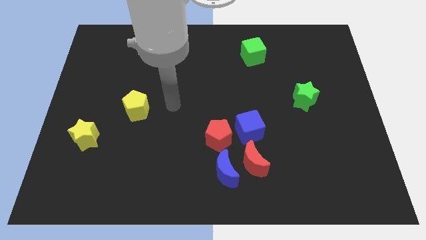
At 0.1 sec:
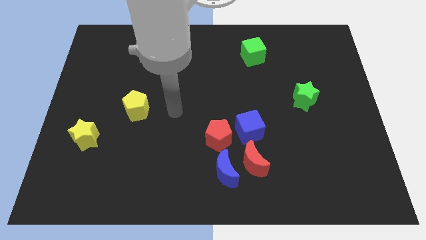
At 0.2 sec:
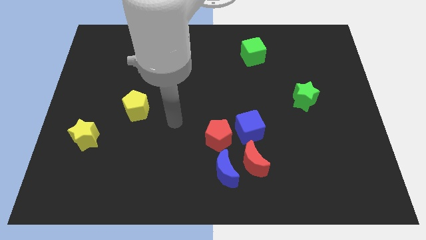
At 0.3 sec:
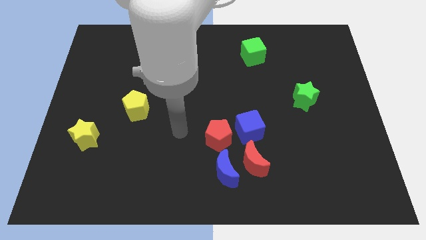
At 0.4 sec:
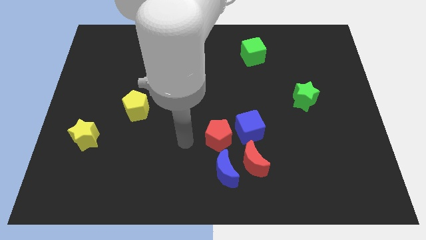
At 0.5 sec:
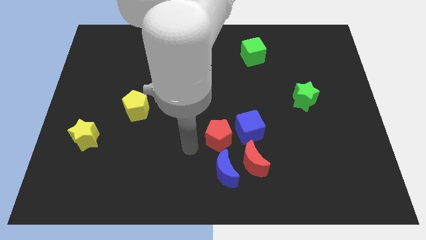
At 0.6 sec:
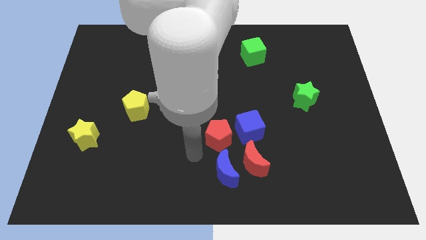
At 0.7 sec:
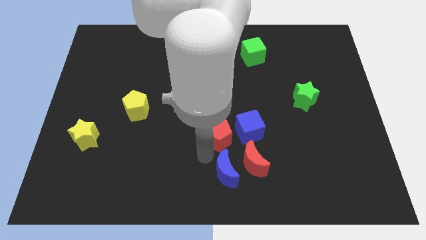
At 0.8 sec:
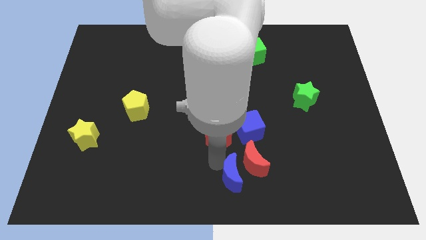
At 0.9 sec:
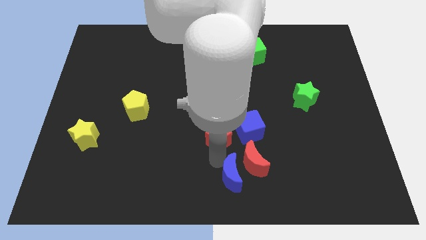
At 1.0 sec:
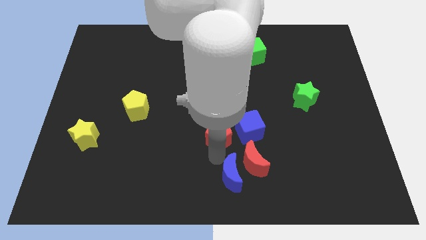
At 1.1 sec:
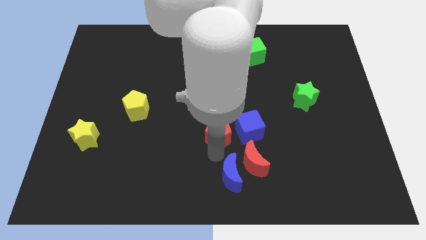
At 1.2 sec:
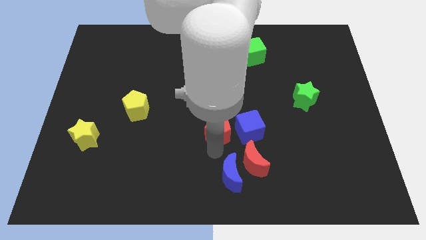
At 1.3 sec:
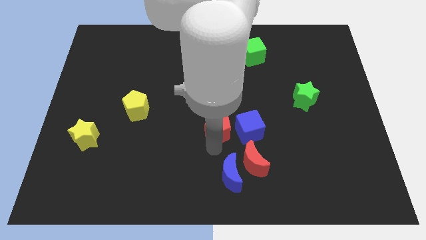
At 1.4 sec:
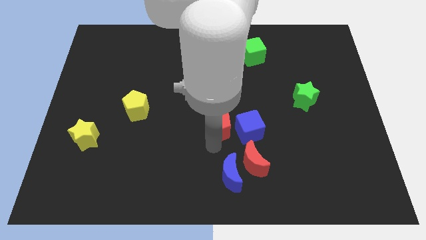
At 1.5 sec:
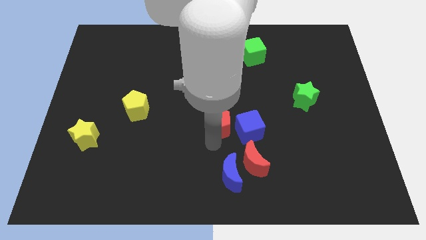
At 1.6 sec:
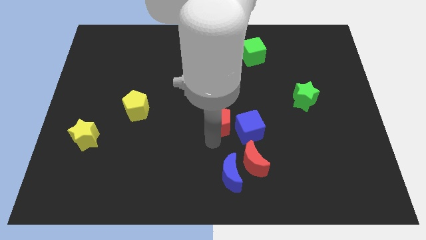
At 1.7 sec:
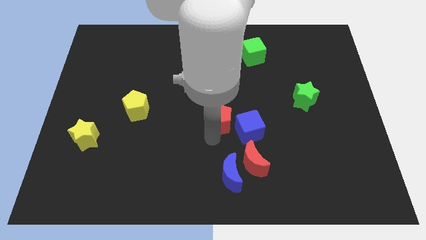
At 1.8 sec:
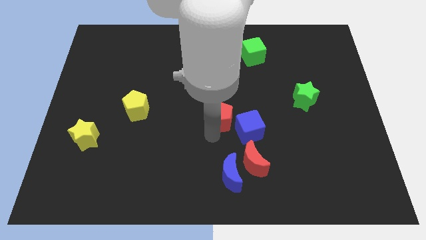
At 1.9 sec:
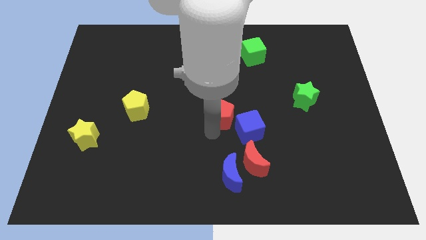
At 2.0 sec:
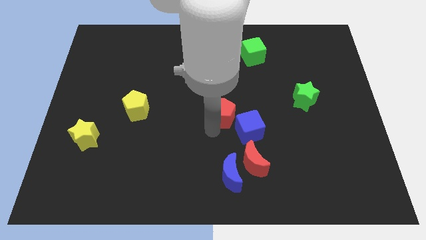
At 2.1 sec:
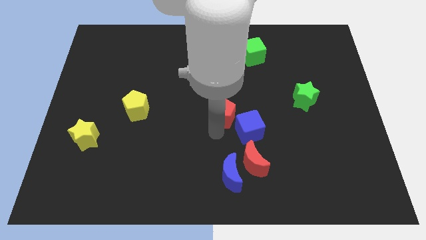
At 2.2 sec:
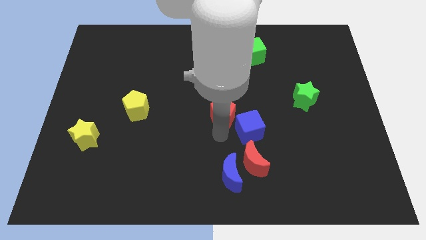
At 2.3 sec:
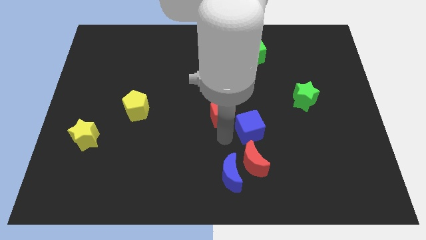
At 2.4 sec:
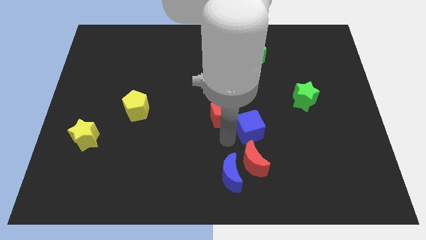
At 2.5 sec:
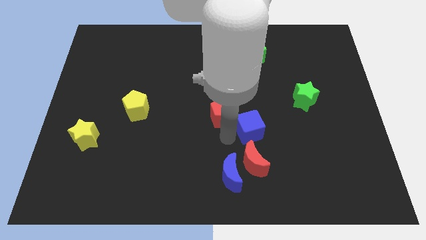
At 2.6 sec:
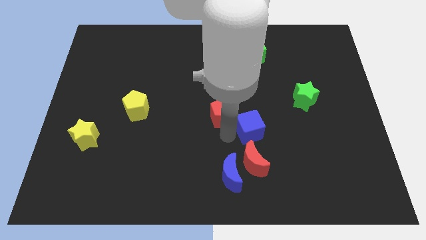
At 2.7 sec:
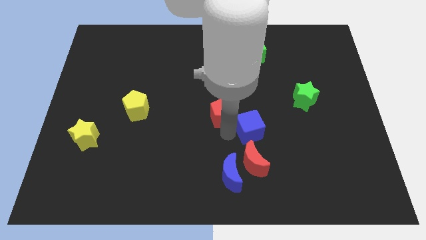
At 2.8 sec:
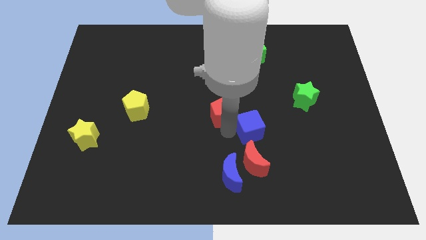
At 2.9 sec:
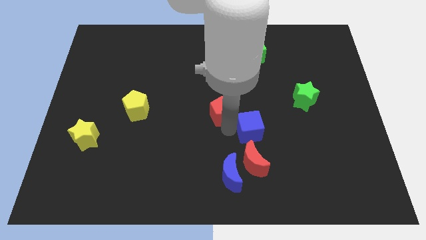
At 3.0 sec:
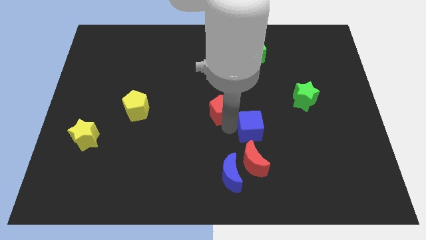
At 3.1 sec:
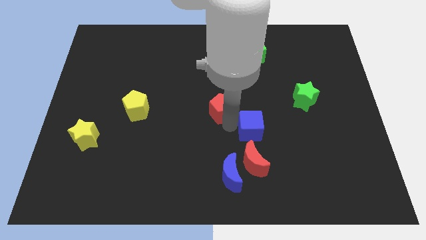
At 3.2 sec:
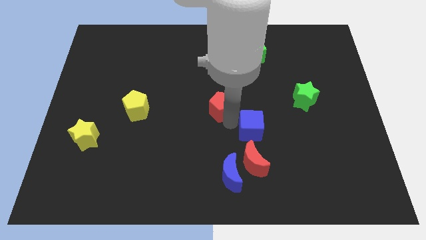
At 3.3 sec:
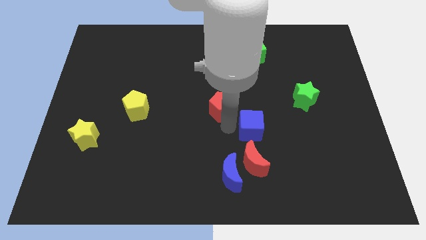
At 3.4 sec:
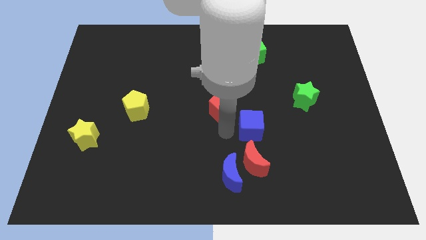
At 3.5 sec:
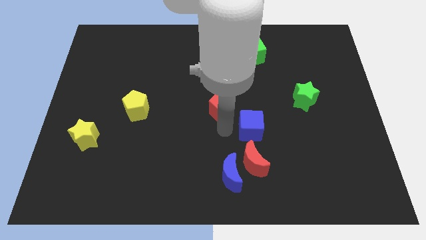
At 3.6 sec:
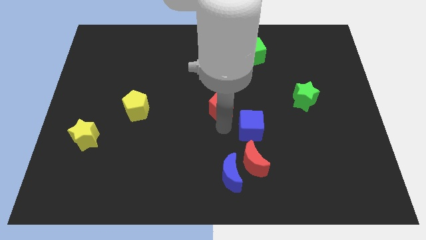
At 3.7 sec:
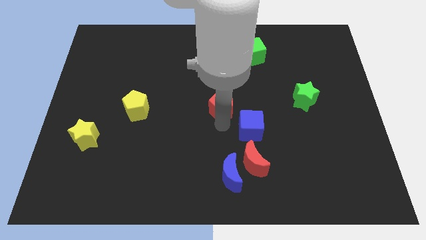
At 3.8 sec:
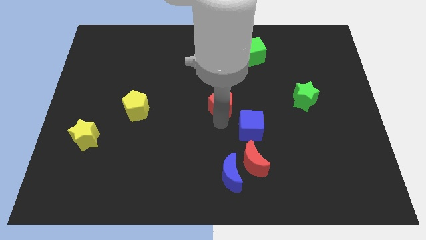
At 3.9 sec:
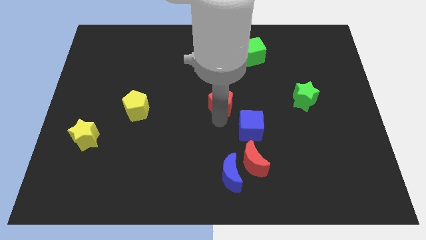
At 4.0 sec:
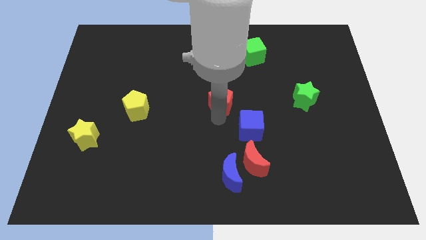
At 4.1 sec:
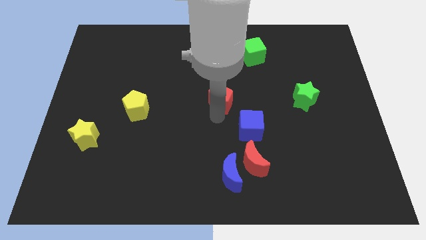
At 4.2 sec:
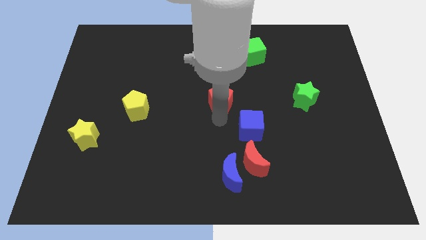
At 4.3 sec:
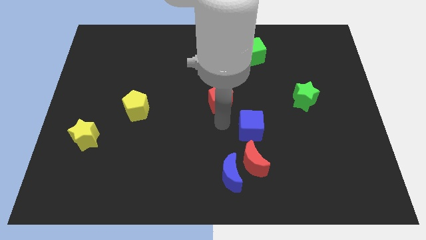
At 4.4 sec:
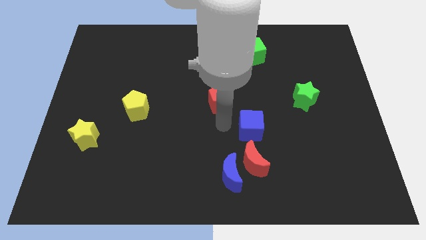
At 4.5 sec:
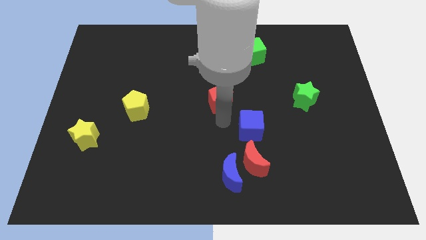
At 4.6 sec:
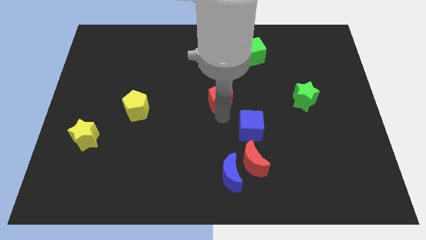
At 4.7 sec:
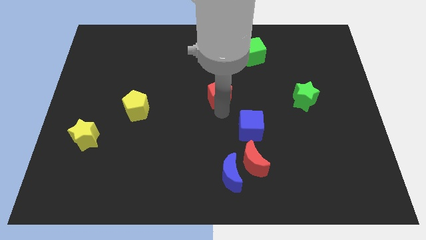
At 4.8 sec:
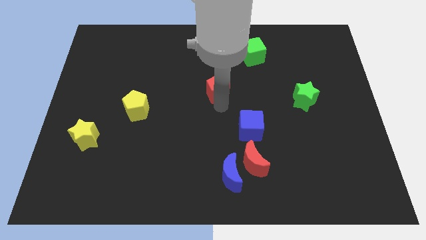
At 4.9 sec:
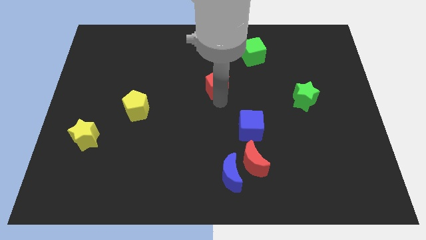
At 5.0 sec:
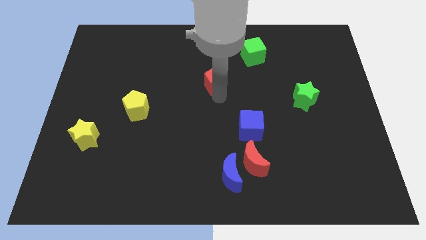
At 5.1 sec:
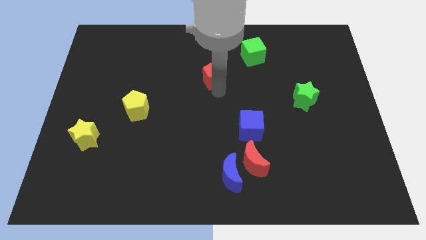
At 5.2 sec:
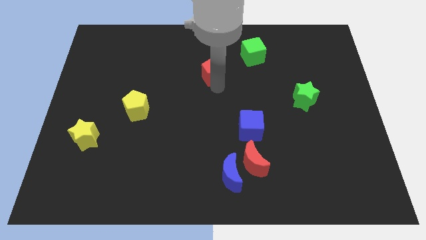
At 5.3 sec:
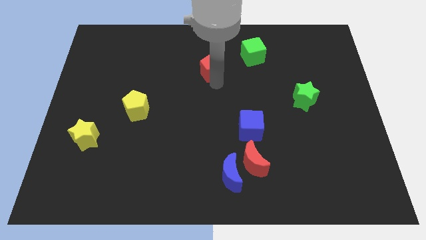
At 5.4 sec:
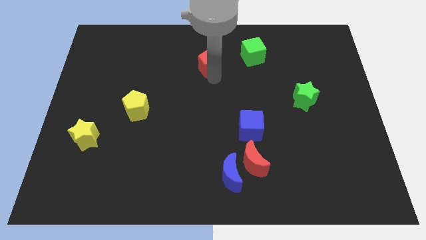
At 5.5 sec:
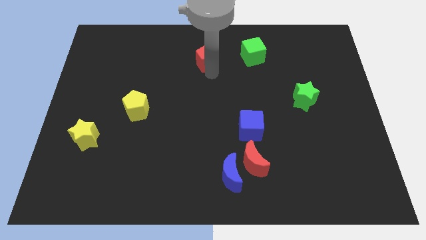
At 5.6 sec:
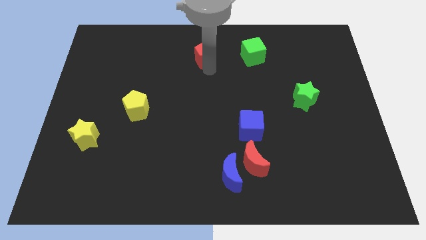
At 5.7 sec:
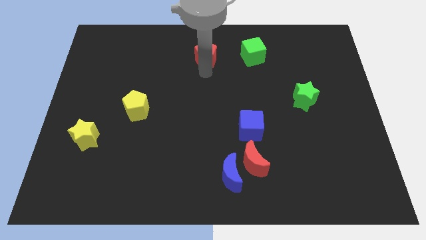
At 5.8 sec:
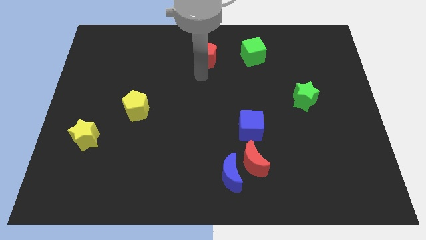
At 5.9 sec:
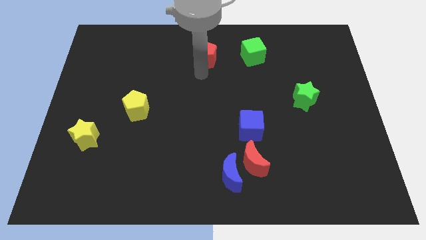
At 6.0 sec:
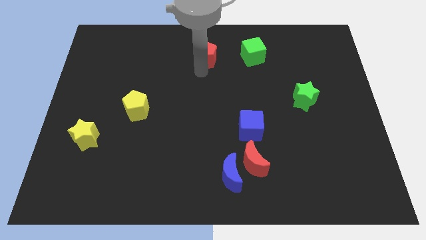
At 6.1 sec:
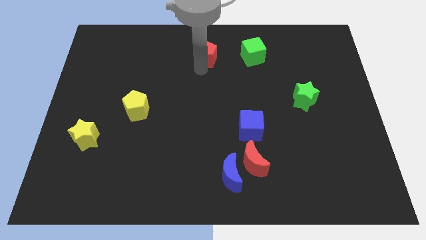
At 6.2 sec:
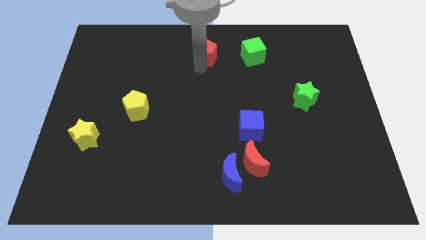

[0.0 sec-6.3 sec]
slide the red pentagon to the top

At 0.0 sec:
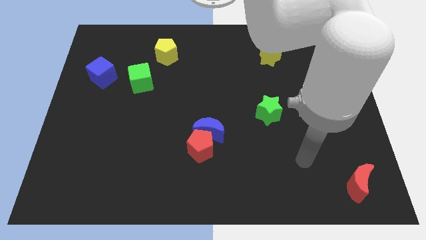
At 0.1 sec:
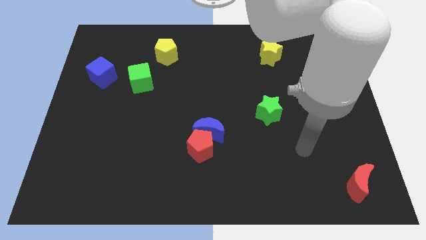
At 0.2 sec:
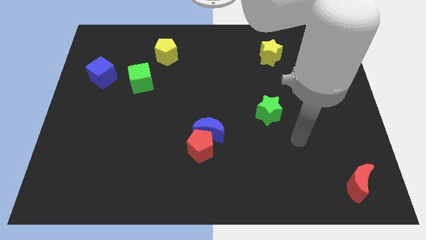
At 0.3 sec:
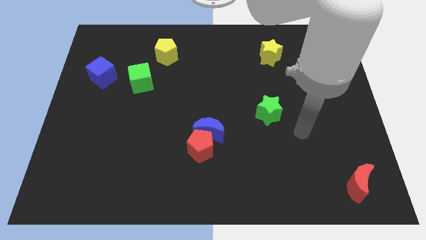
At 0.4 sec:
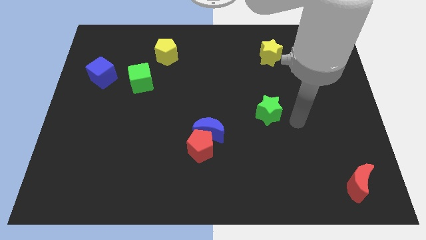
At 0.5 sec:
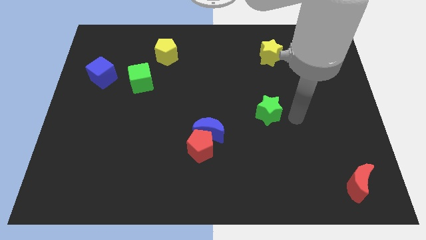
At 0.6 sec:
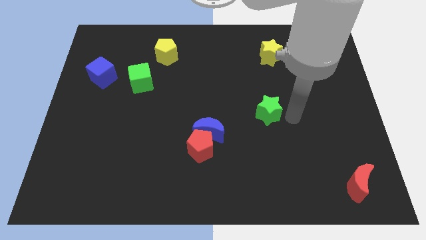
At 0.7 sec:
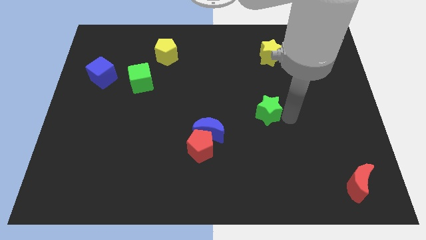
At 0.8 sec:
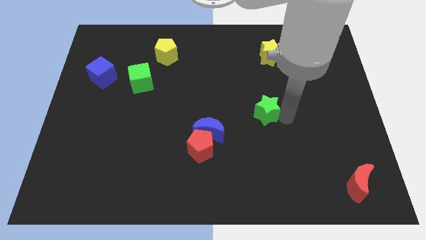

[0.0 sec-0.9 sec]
move the green star to the center of the board
